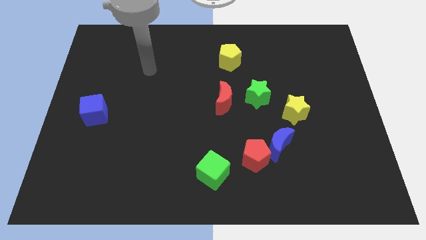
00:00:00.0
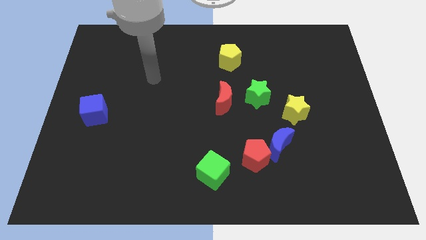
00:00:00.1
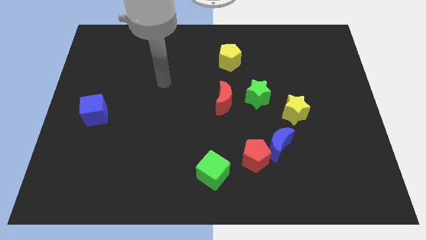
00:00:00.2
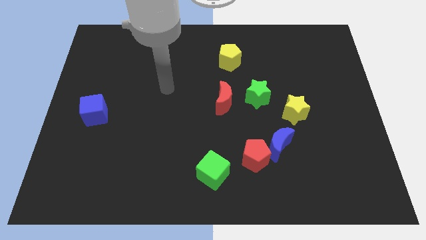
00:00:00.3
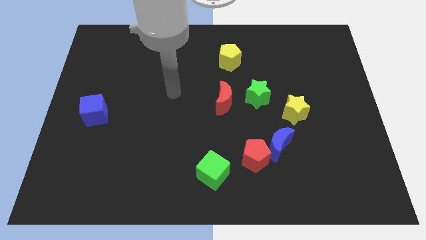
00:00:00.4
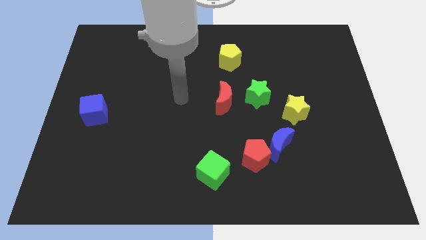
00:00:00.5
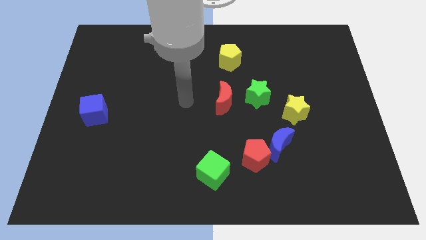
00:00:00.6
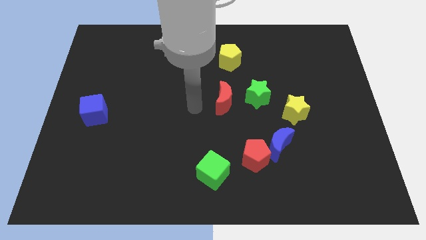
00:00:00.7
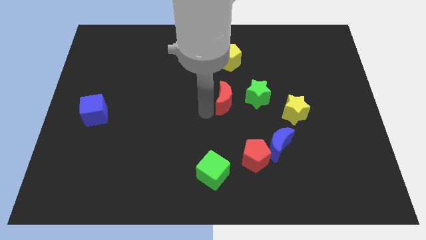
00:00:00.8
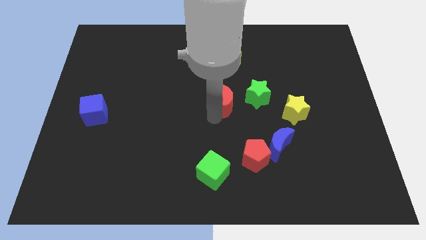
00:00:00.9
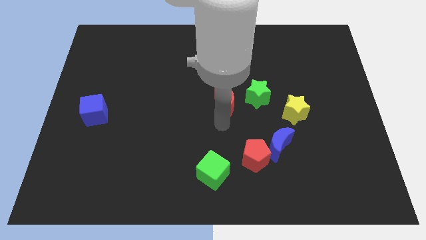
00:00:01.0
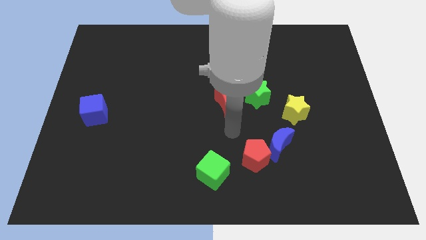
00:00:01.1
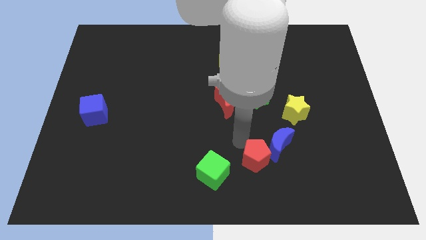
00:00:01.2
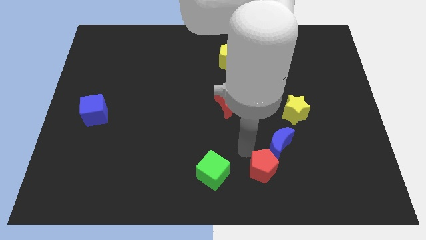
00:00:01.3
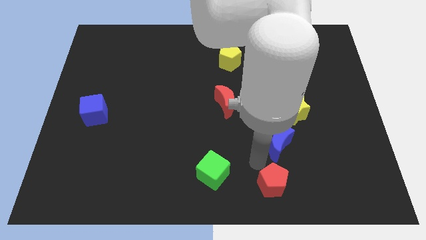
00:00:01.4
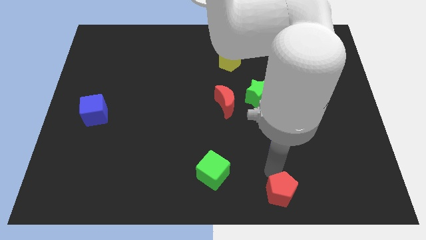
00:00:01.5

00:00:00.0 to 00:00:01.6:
separate the blue moon from the red pentagon

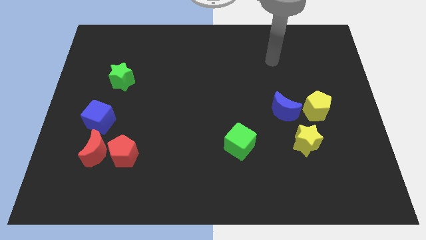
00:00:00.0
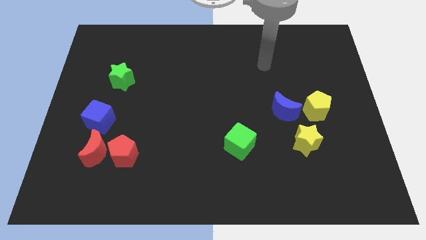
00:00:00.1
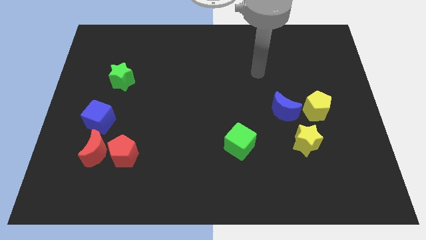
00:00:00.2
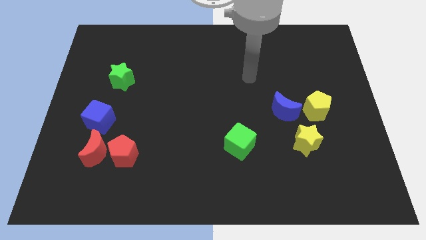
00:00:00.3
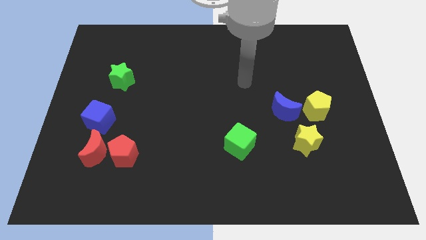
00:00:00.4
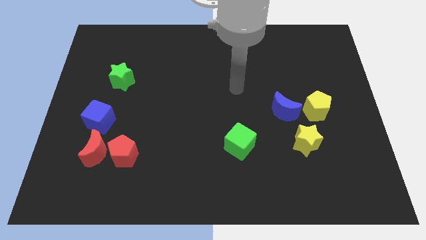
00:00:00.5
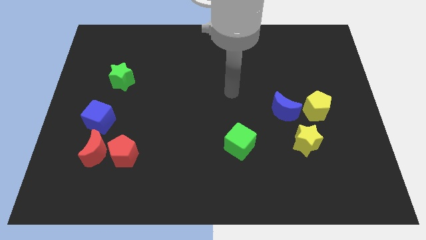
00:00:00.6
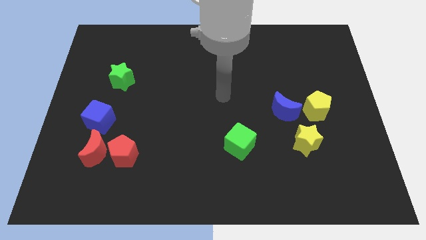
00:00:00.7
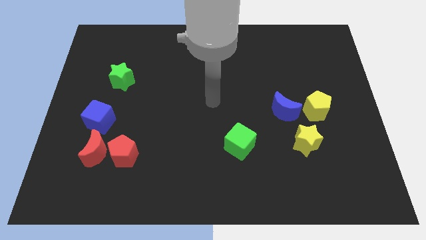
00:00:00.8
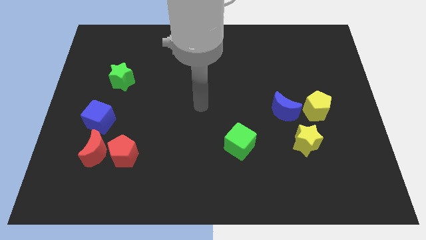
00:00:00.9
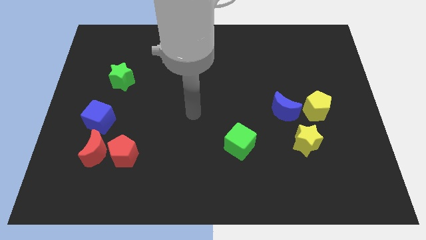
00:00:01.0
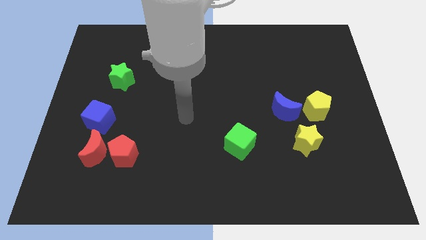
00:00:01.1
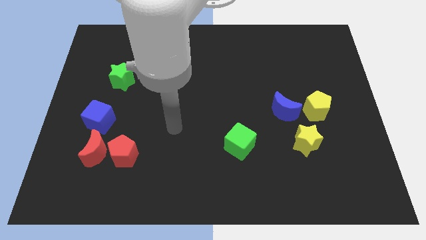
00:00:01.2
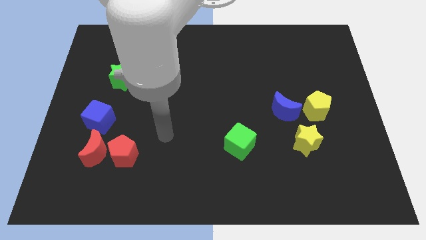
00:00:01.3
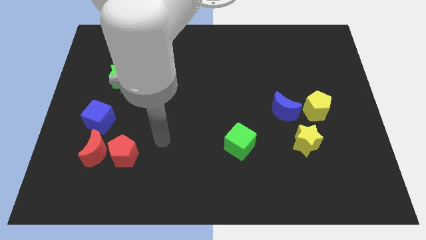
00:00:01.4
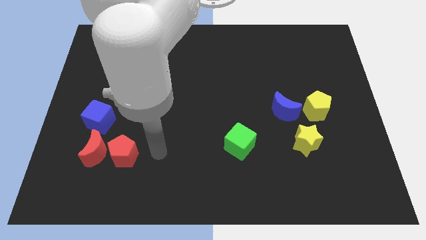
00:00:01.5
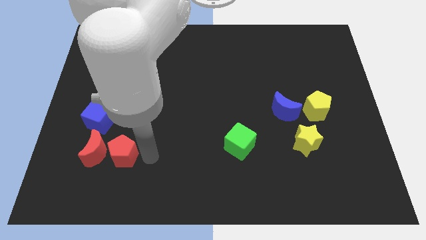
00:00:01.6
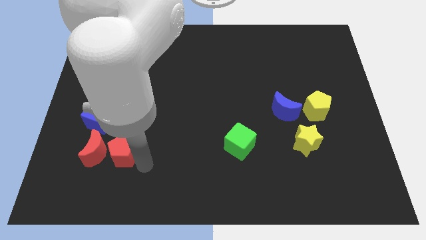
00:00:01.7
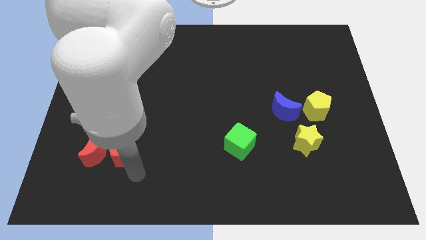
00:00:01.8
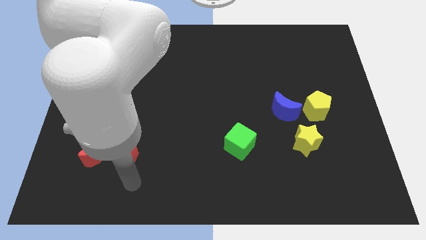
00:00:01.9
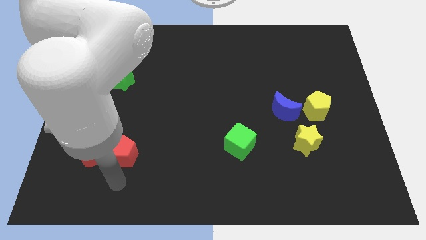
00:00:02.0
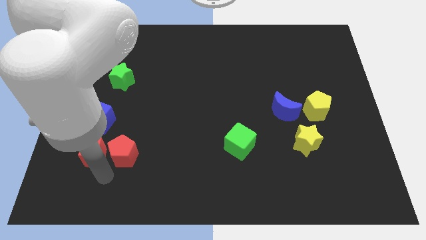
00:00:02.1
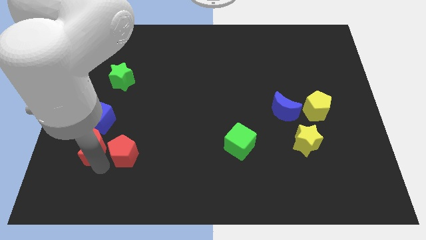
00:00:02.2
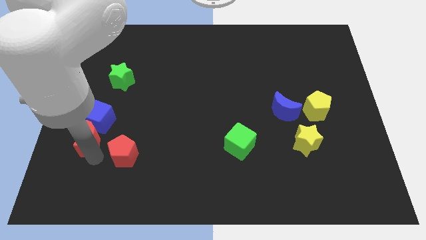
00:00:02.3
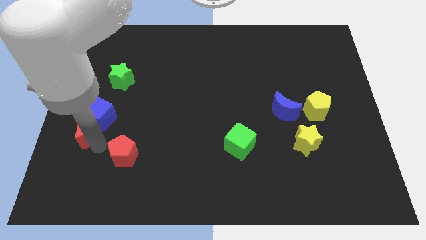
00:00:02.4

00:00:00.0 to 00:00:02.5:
separate the red pentagon from the red moon

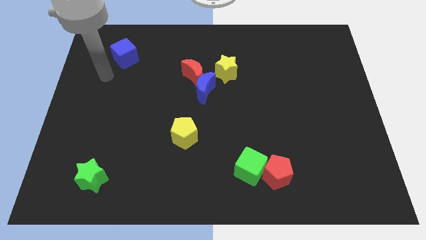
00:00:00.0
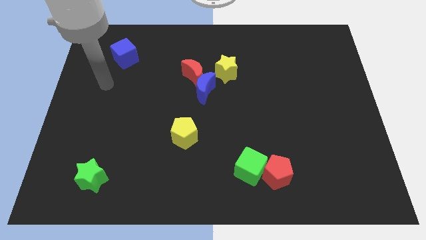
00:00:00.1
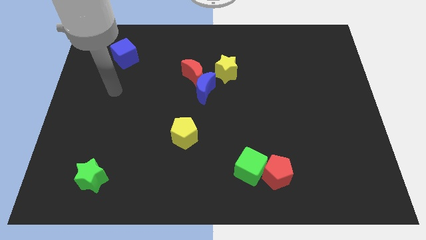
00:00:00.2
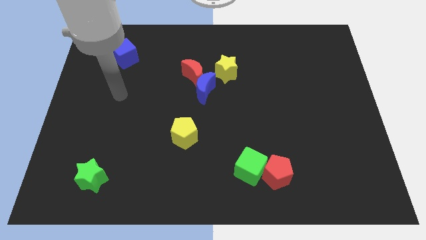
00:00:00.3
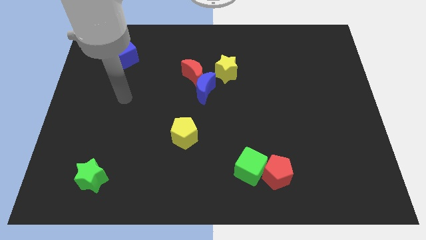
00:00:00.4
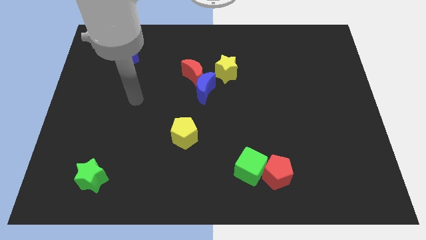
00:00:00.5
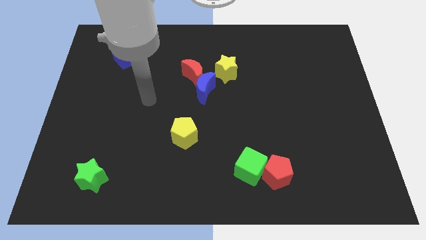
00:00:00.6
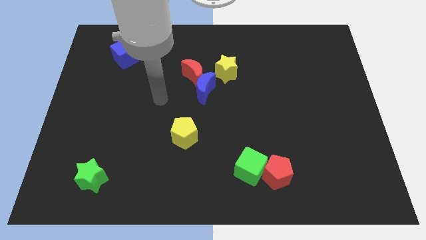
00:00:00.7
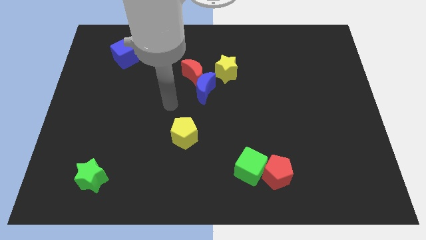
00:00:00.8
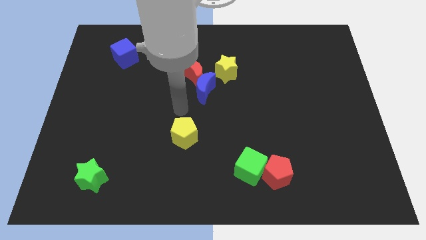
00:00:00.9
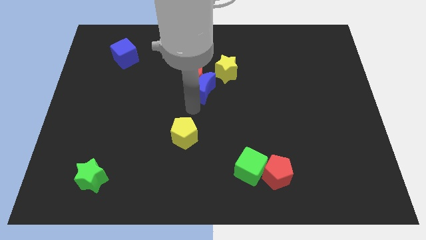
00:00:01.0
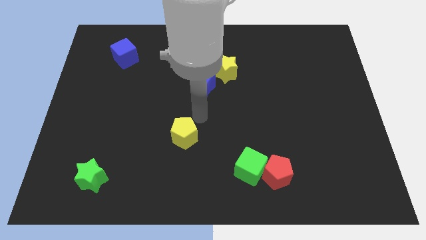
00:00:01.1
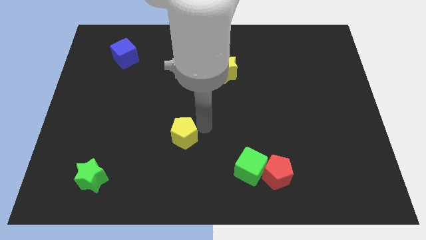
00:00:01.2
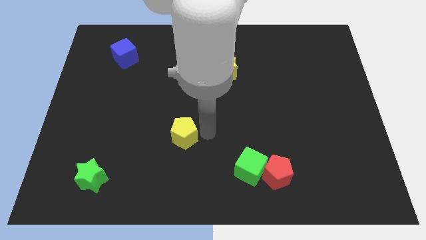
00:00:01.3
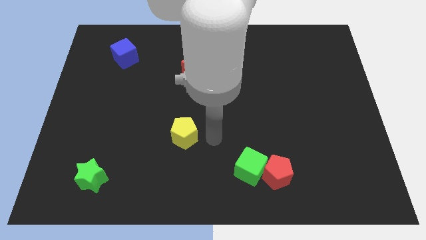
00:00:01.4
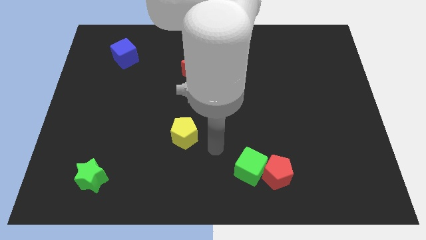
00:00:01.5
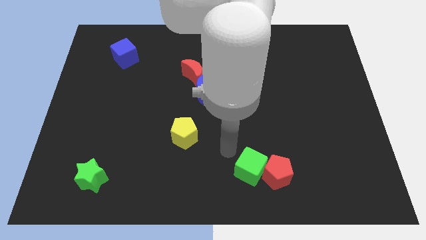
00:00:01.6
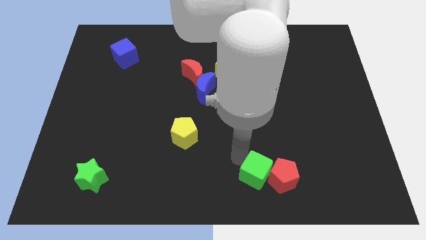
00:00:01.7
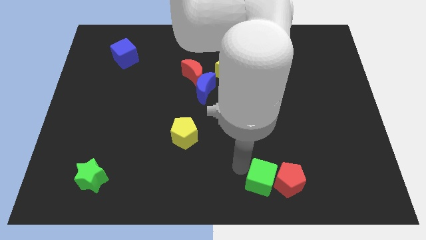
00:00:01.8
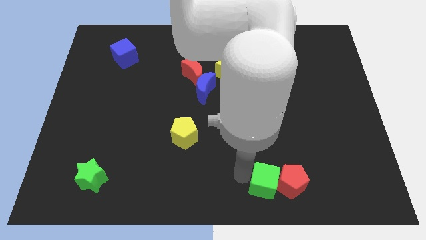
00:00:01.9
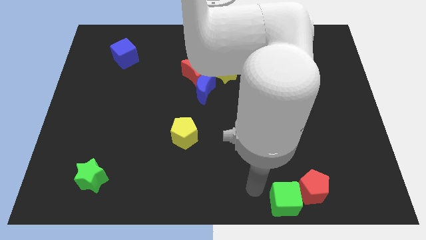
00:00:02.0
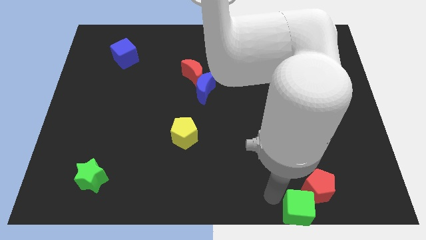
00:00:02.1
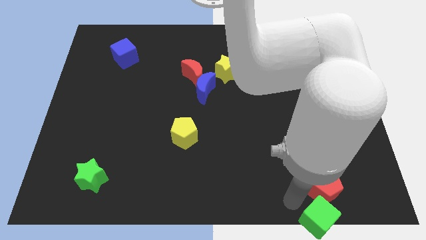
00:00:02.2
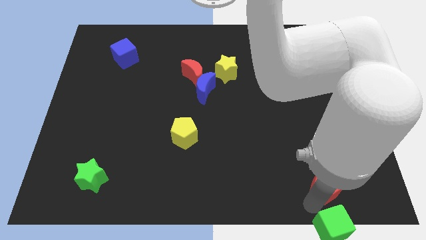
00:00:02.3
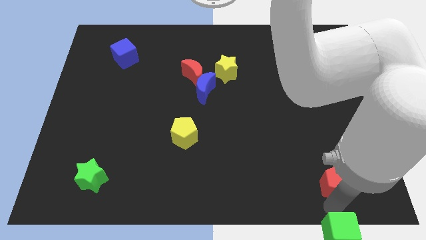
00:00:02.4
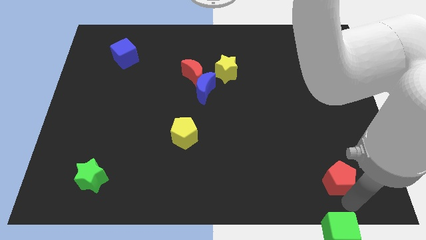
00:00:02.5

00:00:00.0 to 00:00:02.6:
separate the red pentagon from the green cube

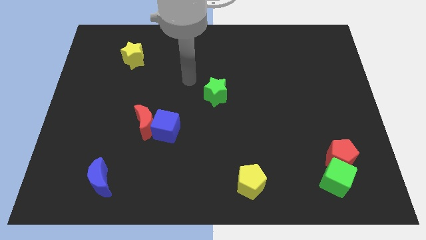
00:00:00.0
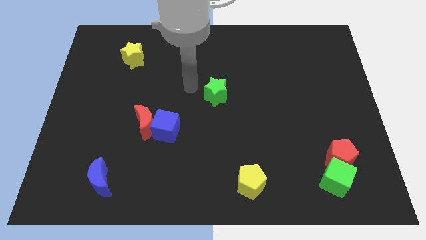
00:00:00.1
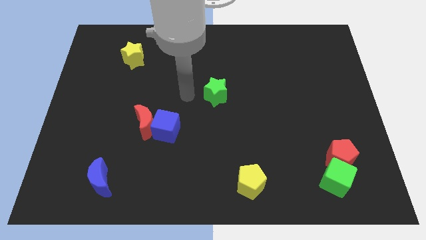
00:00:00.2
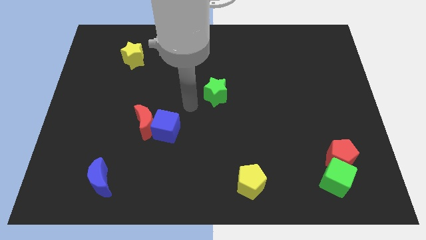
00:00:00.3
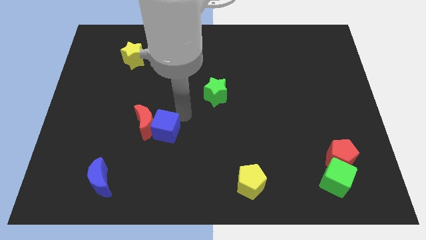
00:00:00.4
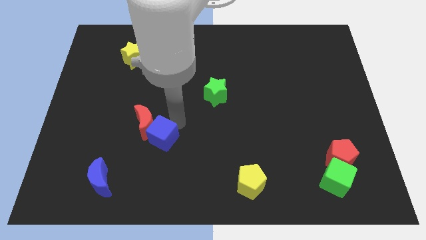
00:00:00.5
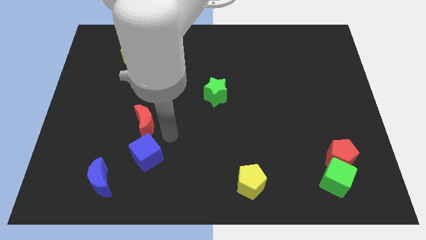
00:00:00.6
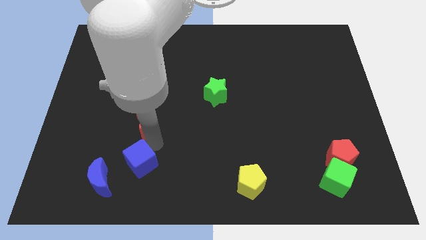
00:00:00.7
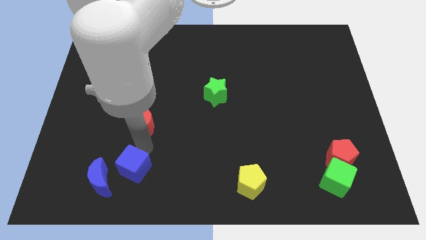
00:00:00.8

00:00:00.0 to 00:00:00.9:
separate the red moon from the blue cube

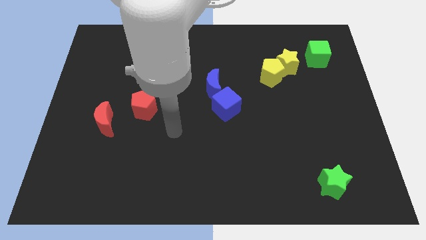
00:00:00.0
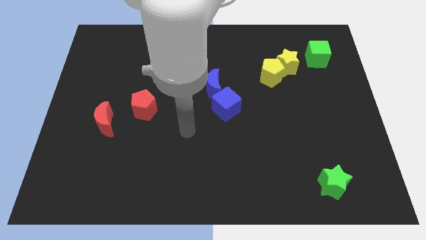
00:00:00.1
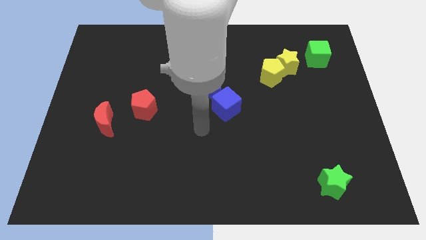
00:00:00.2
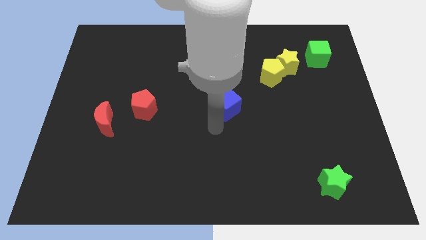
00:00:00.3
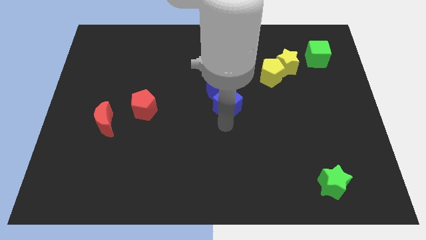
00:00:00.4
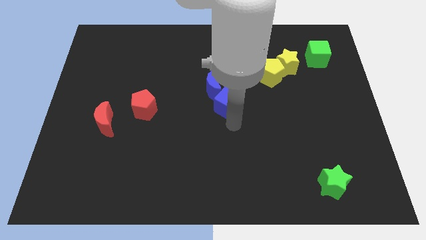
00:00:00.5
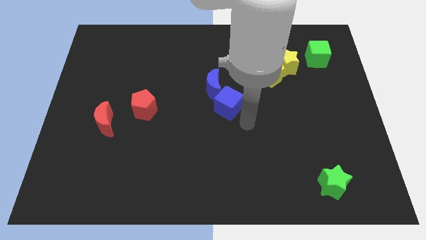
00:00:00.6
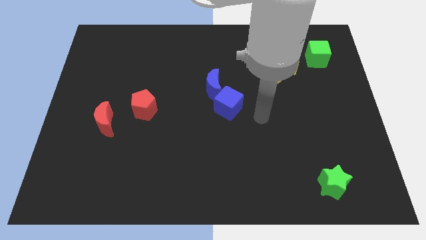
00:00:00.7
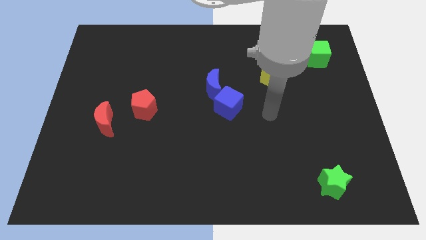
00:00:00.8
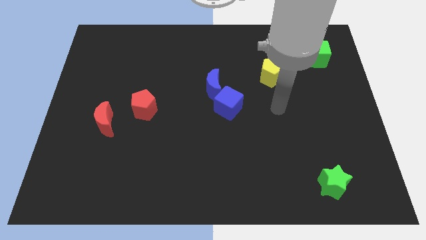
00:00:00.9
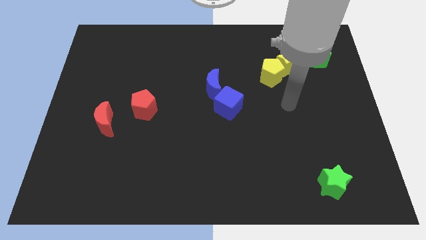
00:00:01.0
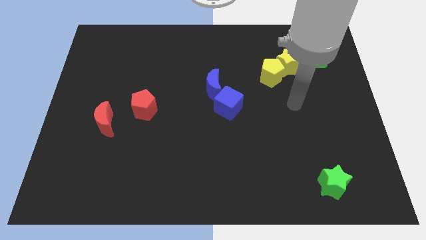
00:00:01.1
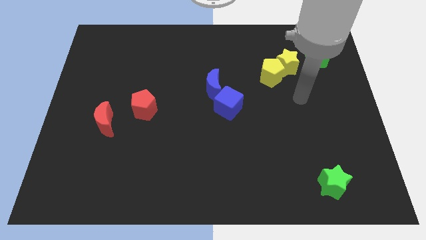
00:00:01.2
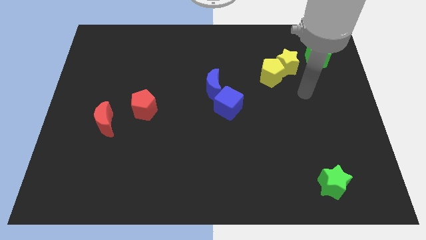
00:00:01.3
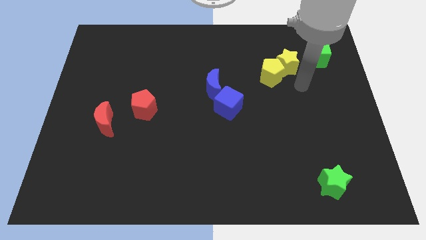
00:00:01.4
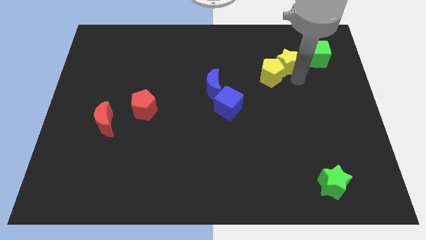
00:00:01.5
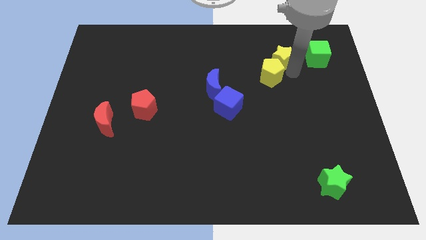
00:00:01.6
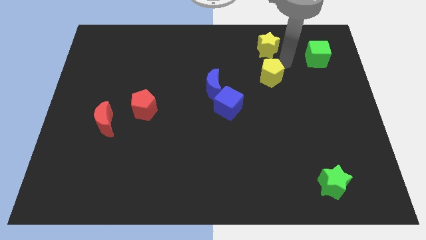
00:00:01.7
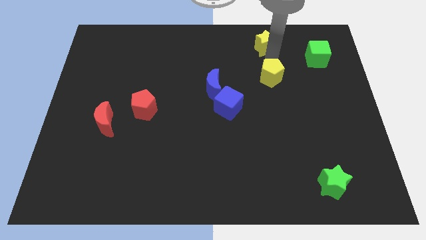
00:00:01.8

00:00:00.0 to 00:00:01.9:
pull the yellow pentagon apart from the yellow star
